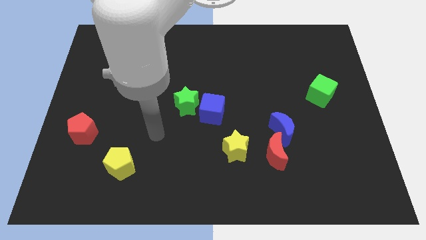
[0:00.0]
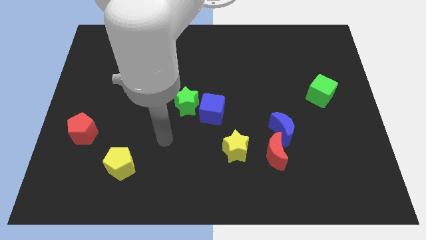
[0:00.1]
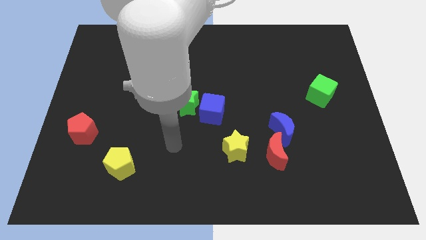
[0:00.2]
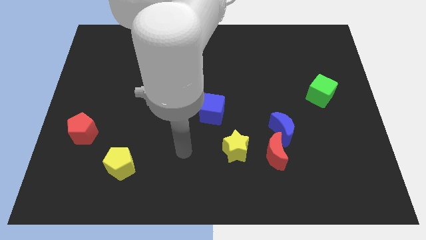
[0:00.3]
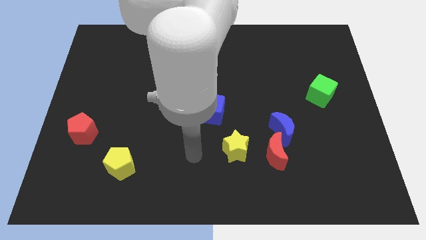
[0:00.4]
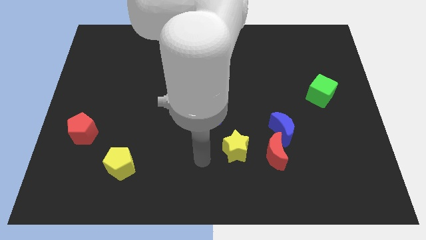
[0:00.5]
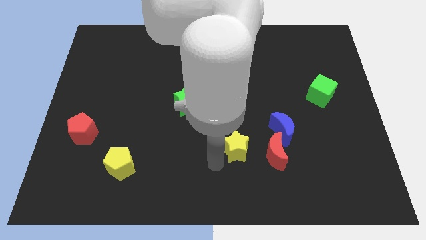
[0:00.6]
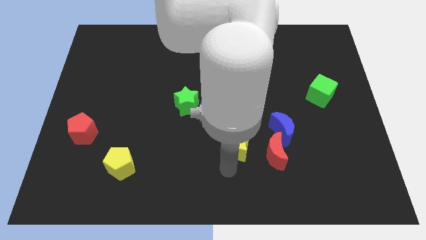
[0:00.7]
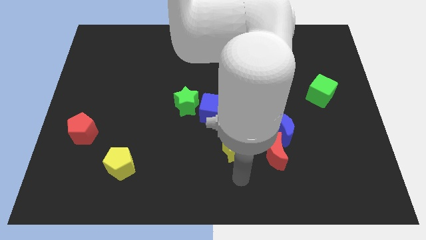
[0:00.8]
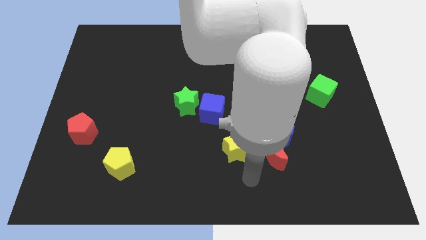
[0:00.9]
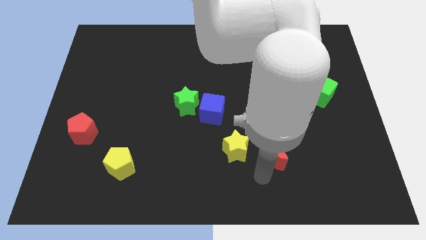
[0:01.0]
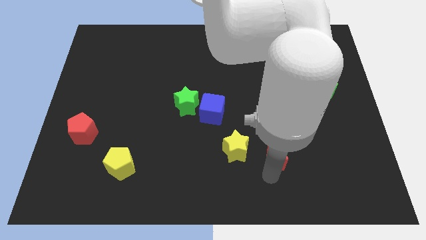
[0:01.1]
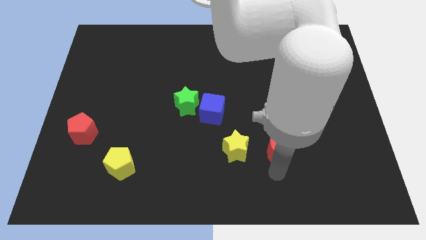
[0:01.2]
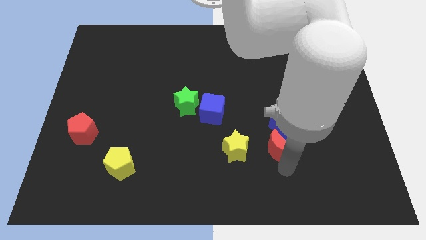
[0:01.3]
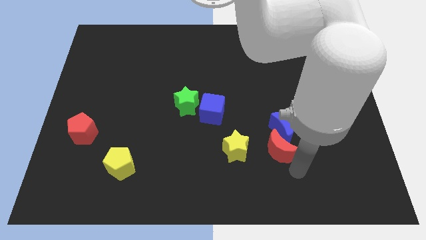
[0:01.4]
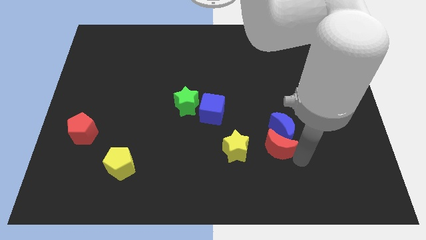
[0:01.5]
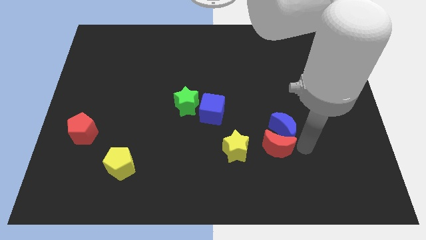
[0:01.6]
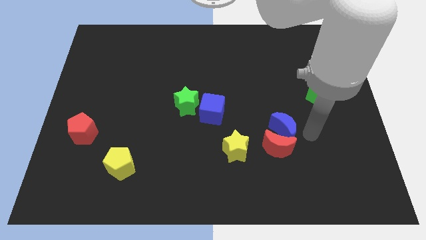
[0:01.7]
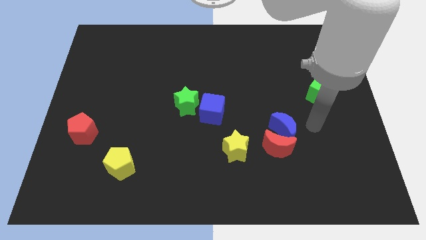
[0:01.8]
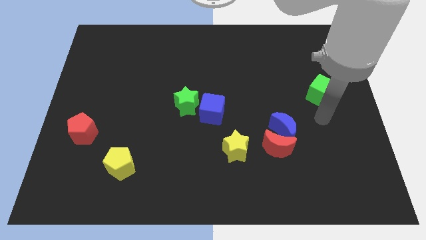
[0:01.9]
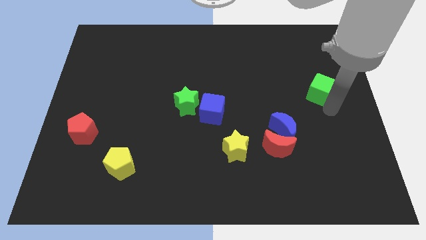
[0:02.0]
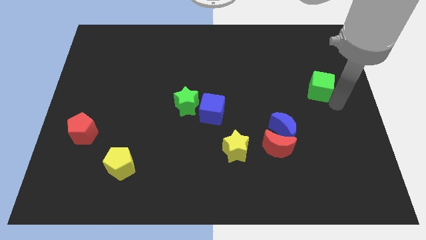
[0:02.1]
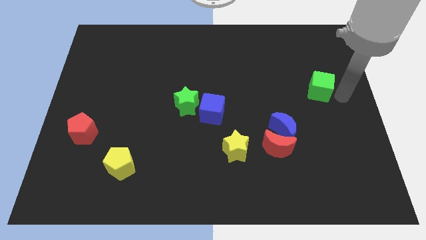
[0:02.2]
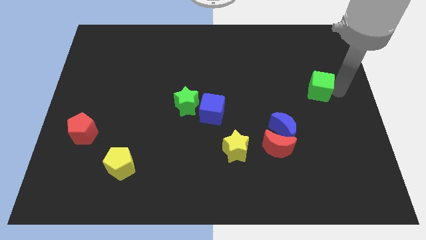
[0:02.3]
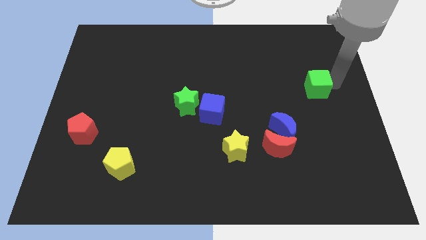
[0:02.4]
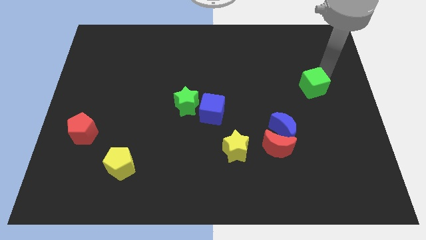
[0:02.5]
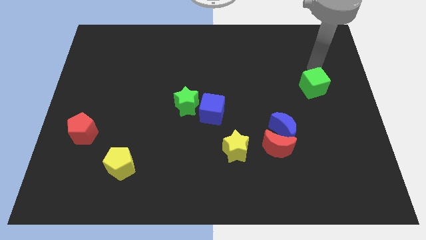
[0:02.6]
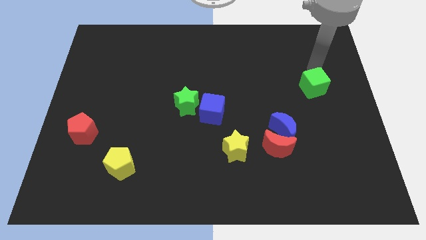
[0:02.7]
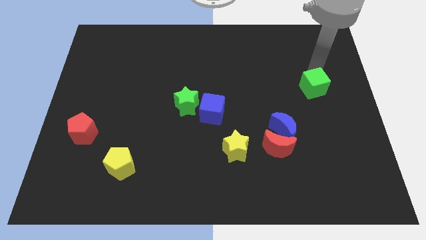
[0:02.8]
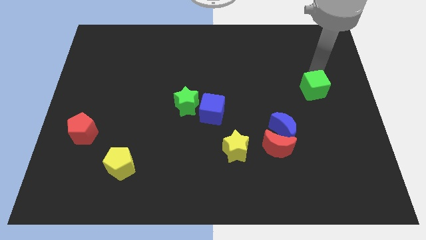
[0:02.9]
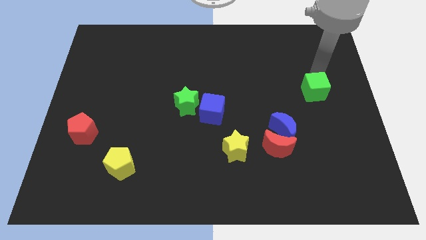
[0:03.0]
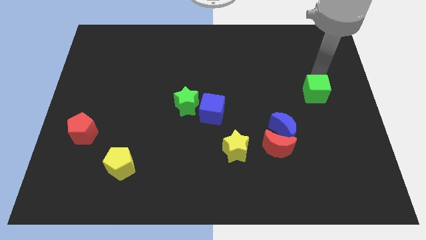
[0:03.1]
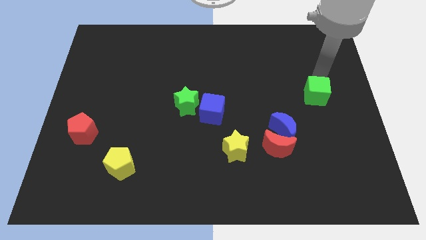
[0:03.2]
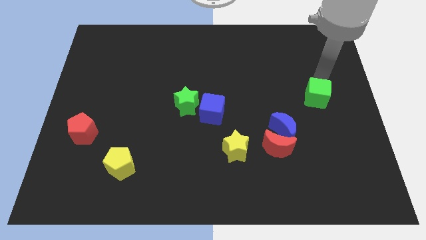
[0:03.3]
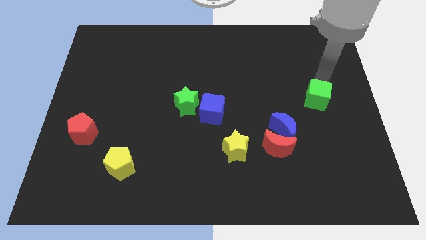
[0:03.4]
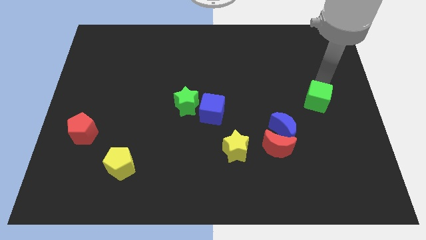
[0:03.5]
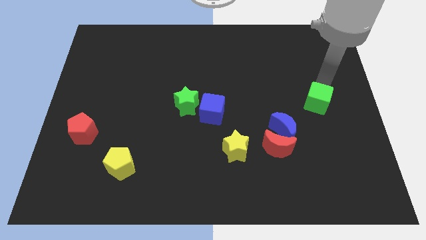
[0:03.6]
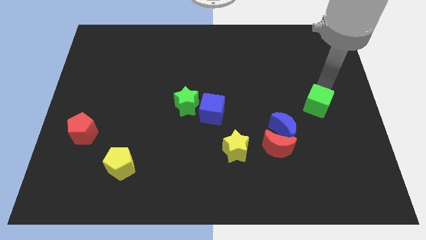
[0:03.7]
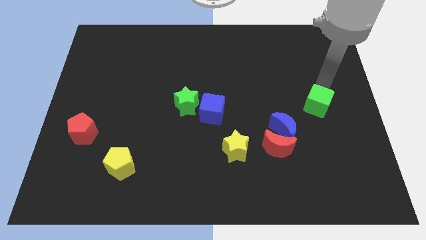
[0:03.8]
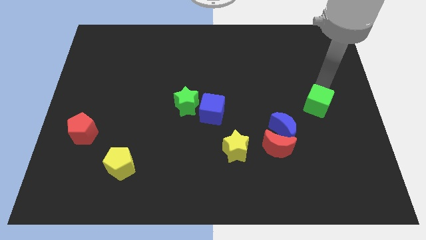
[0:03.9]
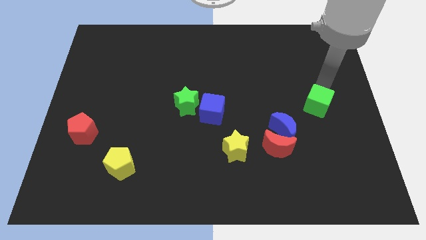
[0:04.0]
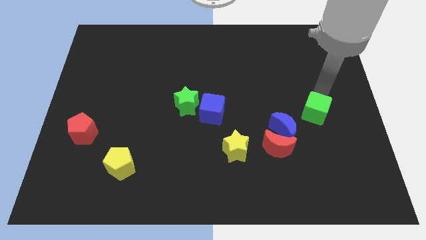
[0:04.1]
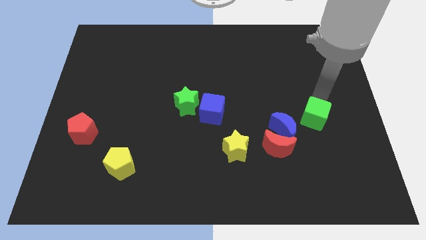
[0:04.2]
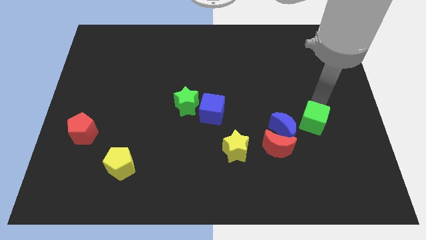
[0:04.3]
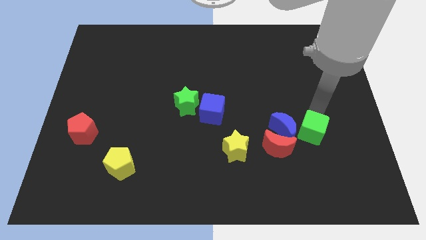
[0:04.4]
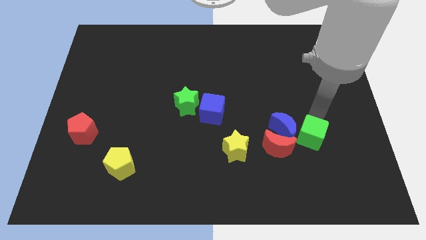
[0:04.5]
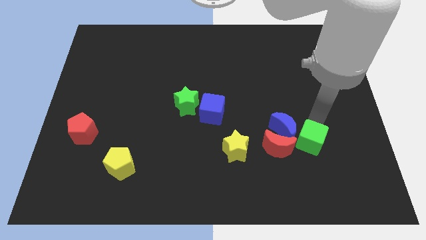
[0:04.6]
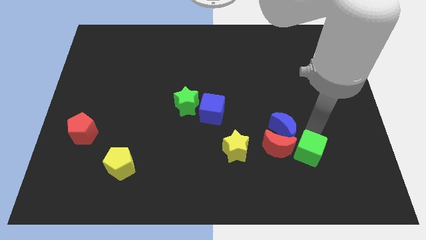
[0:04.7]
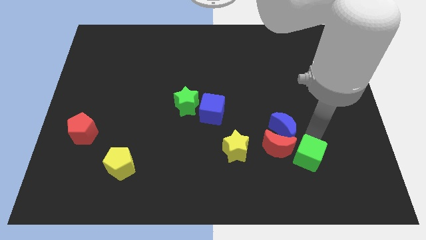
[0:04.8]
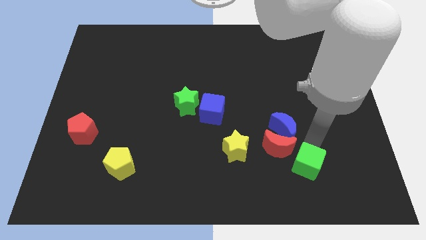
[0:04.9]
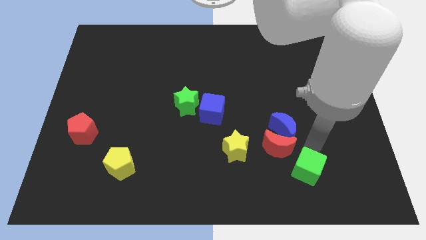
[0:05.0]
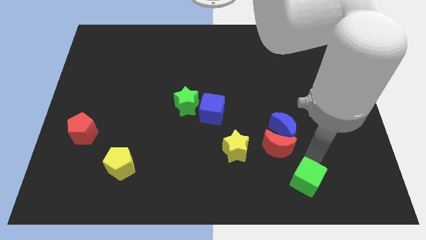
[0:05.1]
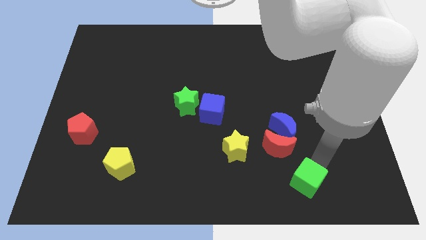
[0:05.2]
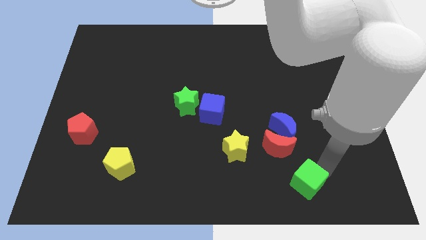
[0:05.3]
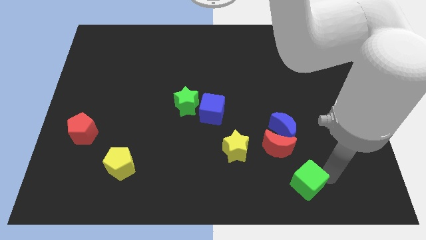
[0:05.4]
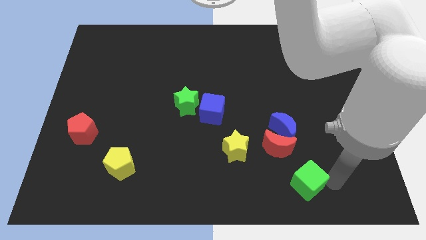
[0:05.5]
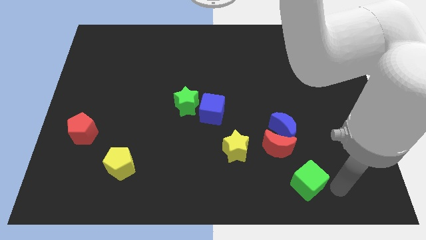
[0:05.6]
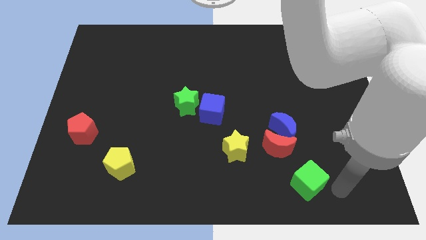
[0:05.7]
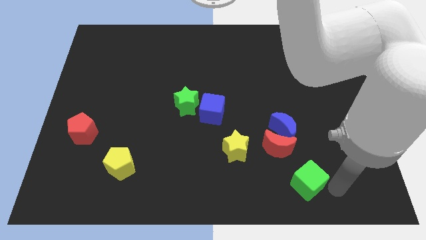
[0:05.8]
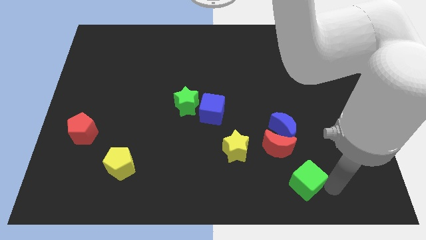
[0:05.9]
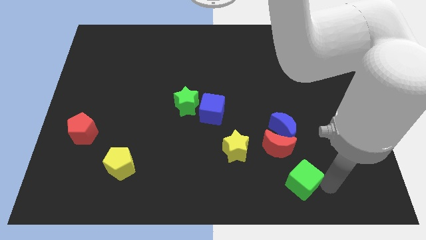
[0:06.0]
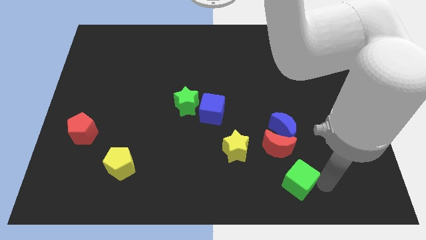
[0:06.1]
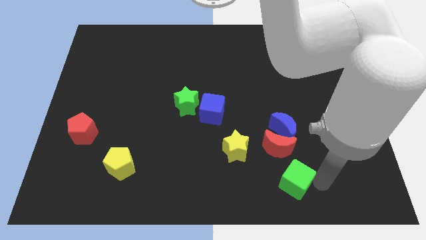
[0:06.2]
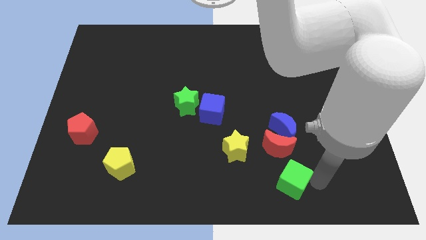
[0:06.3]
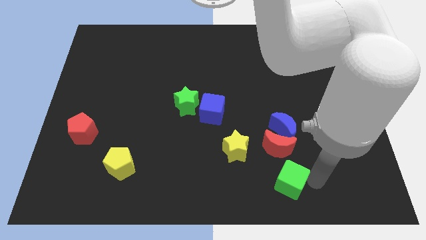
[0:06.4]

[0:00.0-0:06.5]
slide the green cube downwards and to the left

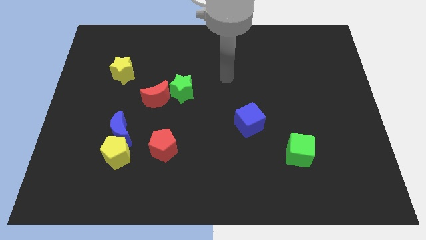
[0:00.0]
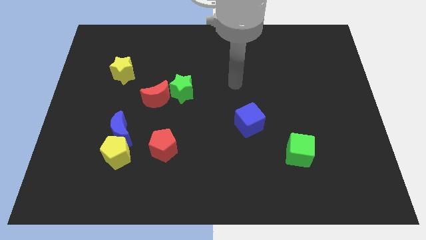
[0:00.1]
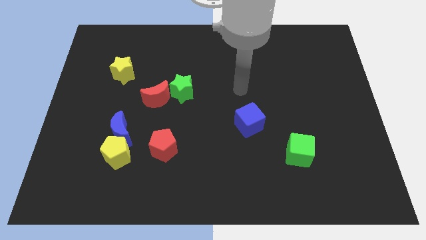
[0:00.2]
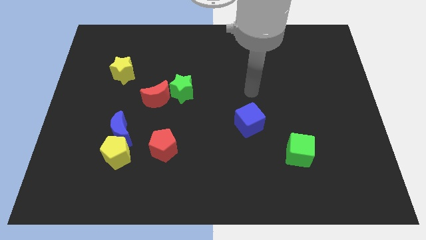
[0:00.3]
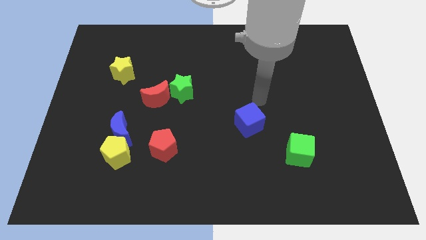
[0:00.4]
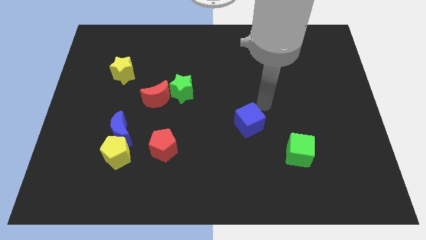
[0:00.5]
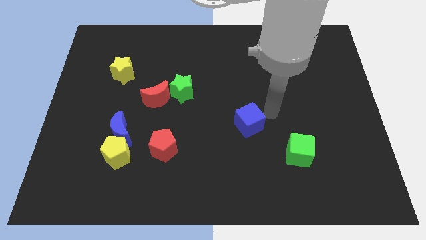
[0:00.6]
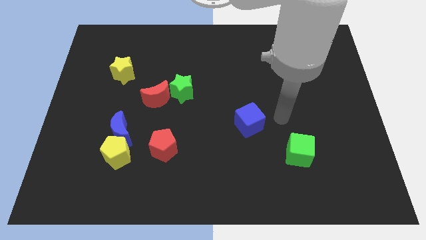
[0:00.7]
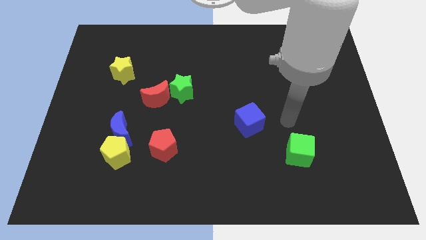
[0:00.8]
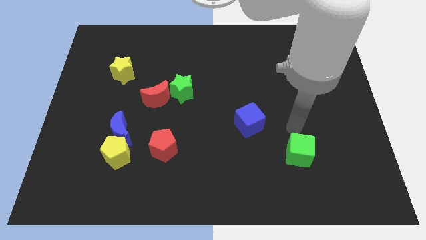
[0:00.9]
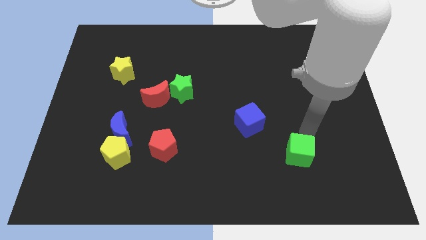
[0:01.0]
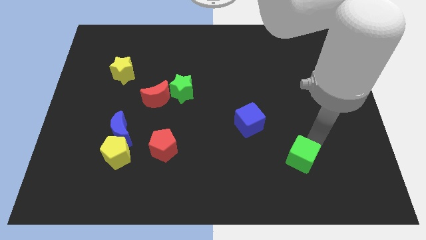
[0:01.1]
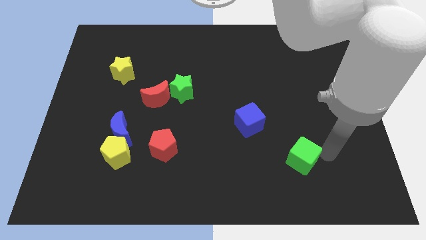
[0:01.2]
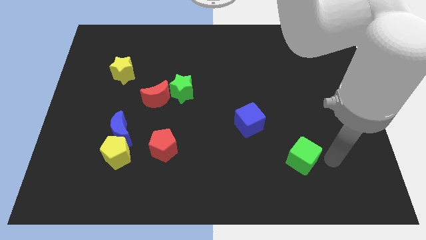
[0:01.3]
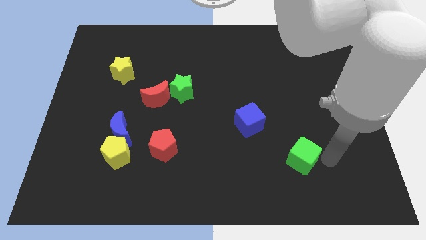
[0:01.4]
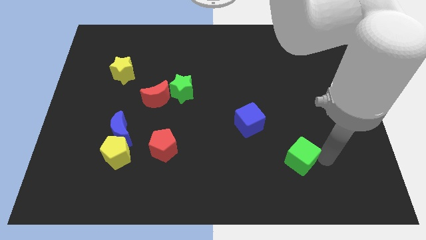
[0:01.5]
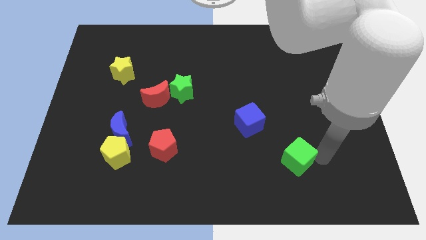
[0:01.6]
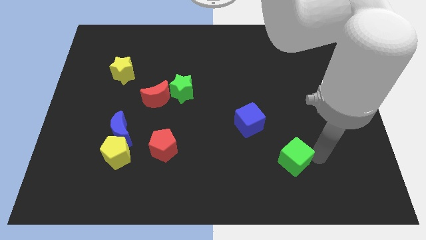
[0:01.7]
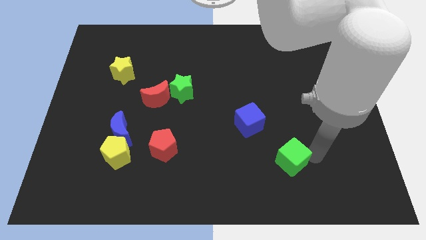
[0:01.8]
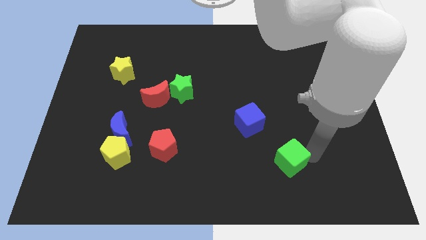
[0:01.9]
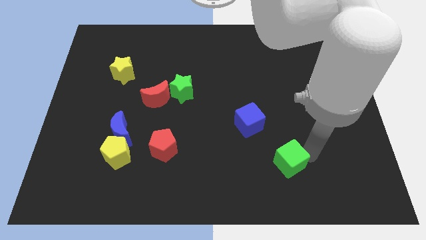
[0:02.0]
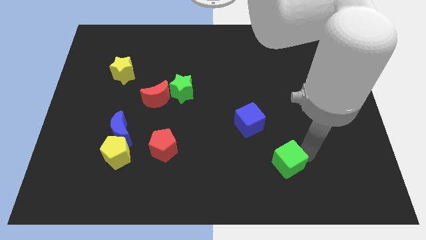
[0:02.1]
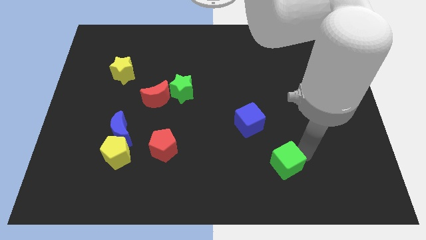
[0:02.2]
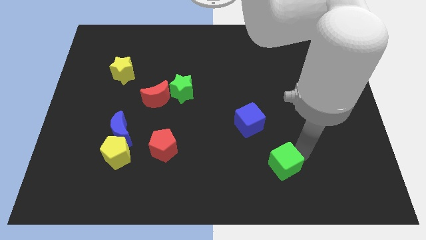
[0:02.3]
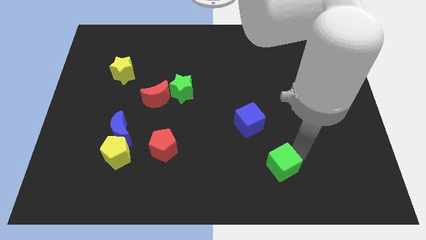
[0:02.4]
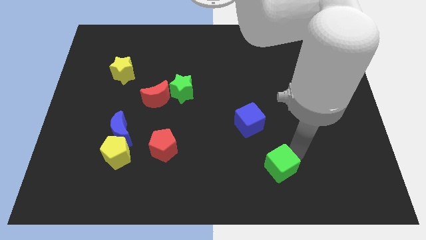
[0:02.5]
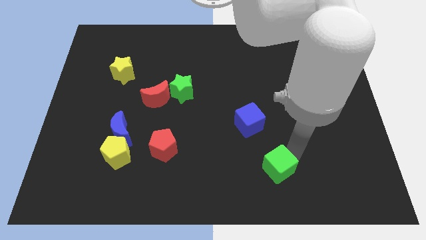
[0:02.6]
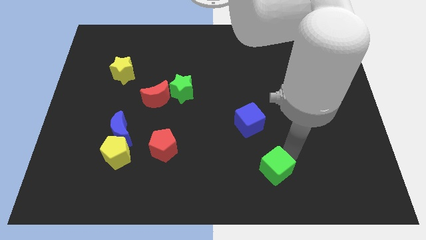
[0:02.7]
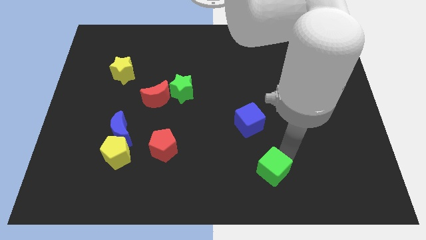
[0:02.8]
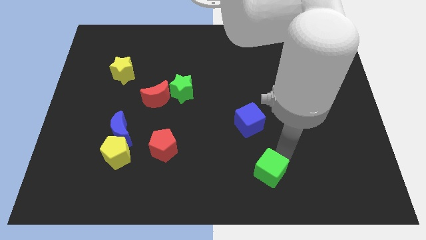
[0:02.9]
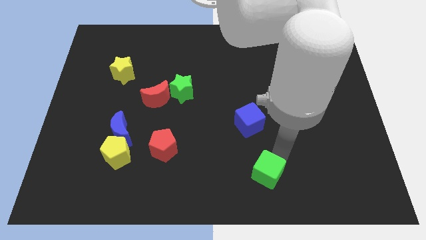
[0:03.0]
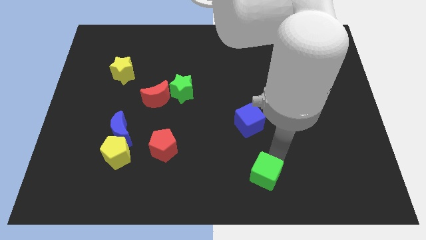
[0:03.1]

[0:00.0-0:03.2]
slightly move the green cube to the left
